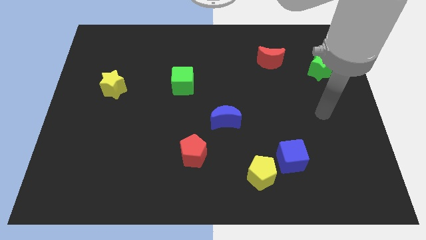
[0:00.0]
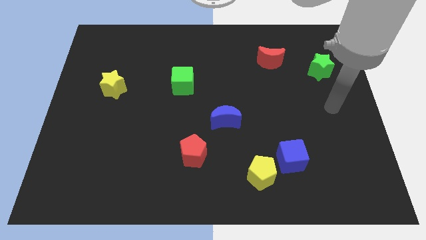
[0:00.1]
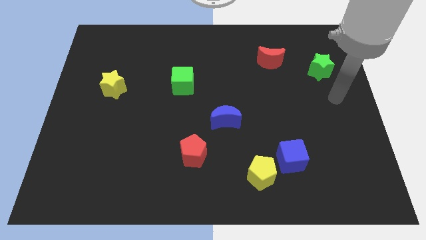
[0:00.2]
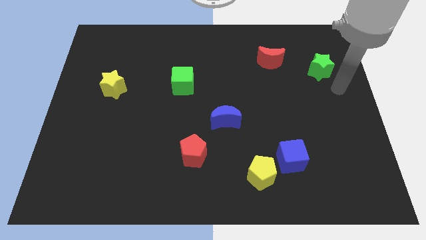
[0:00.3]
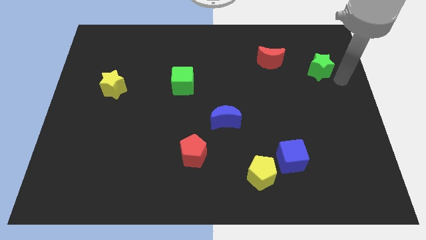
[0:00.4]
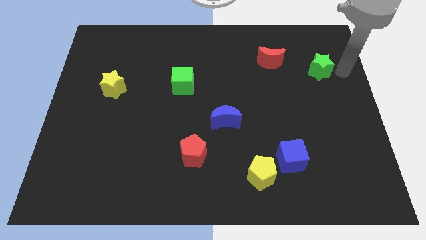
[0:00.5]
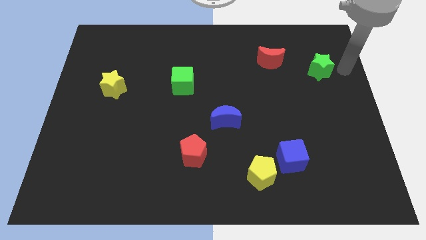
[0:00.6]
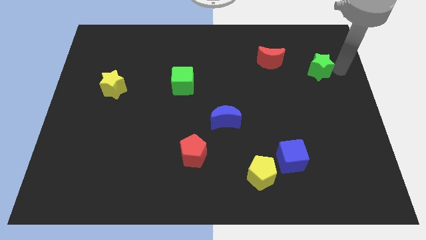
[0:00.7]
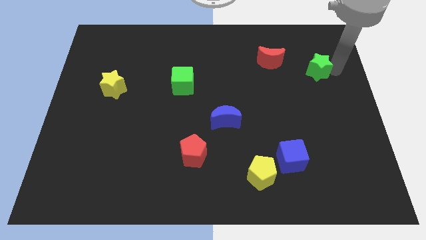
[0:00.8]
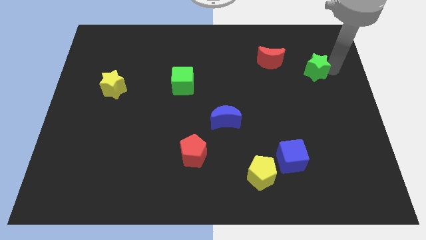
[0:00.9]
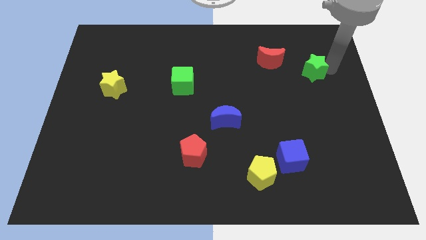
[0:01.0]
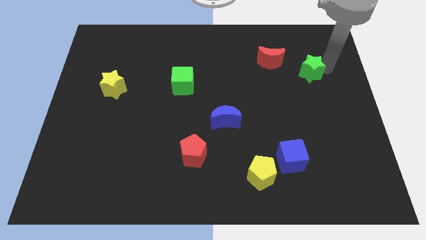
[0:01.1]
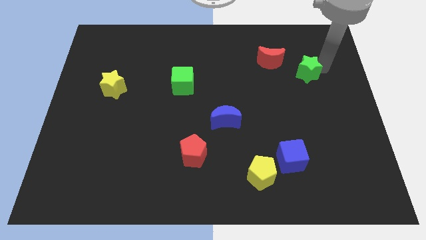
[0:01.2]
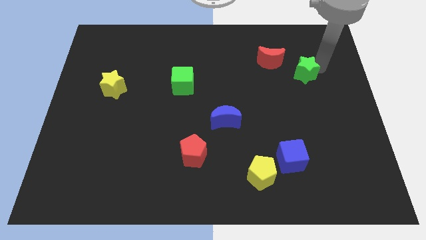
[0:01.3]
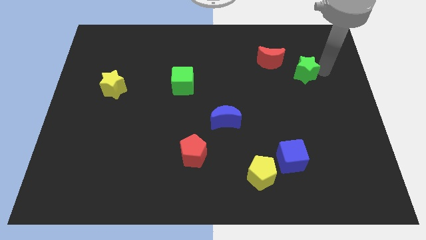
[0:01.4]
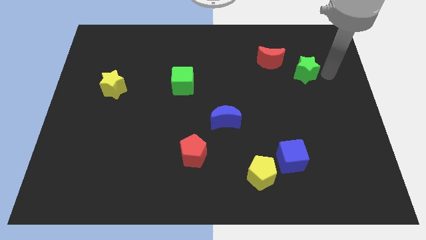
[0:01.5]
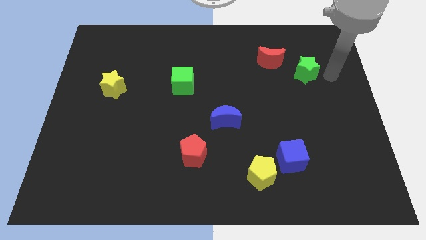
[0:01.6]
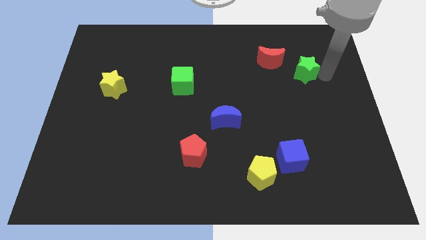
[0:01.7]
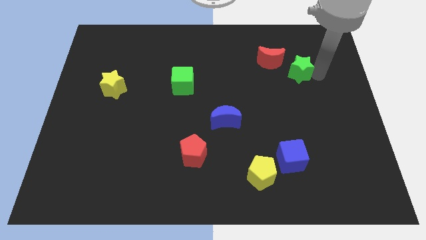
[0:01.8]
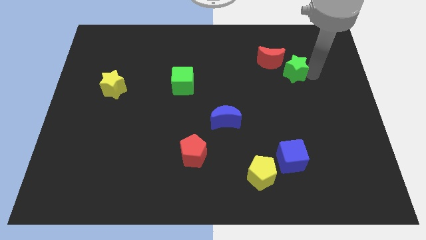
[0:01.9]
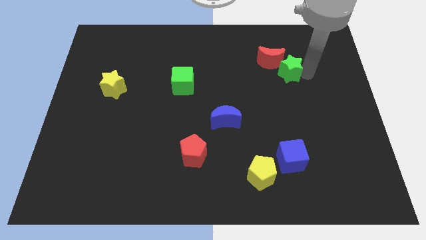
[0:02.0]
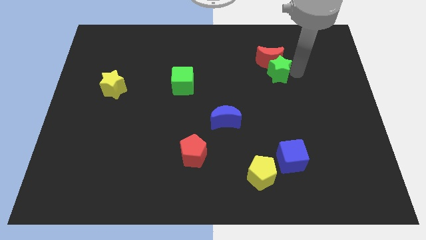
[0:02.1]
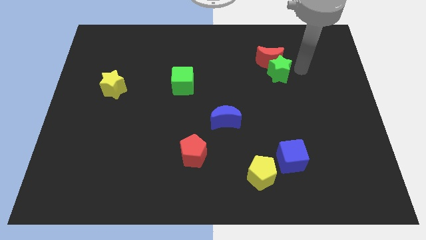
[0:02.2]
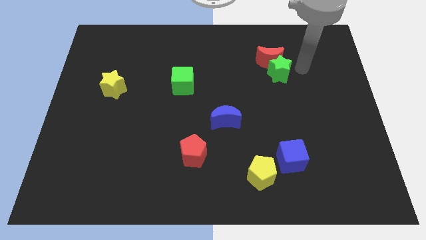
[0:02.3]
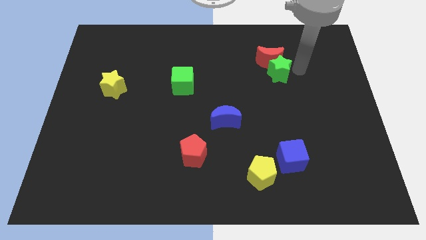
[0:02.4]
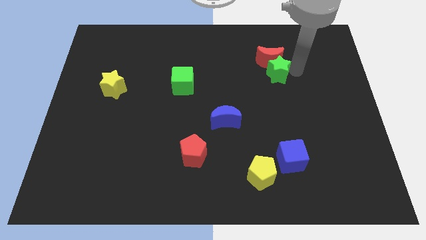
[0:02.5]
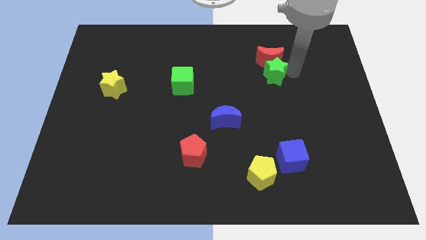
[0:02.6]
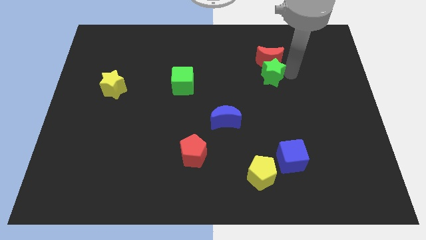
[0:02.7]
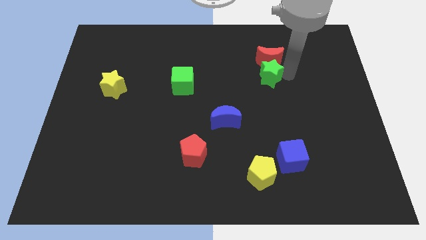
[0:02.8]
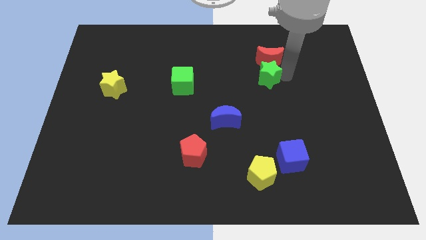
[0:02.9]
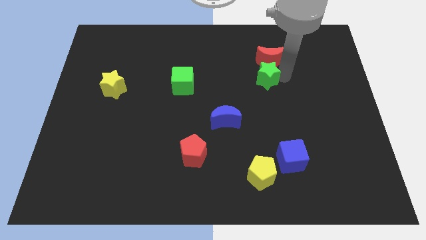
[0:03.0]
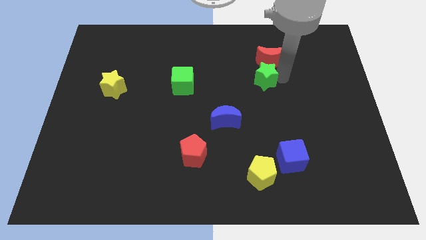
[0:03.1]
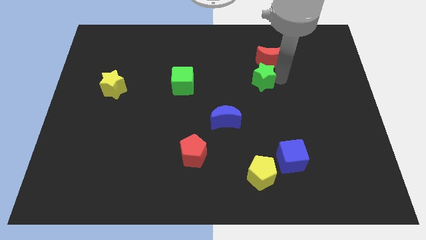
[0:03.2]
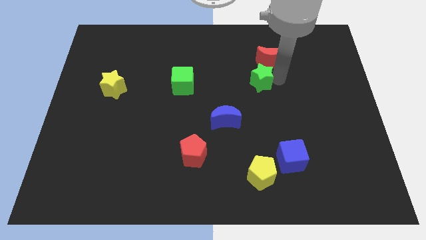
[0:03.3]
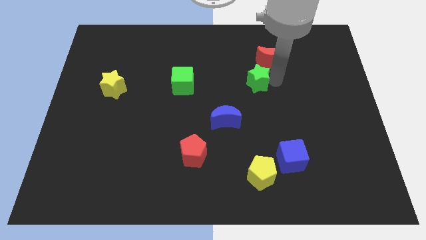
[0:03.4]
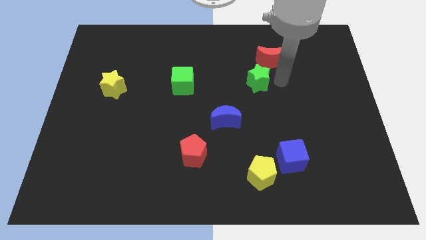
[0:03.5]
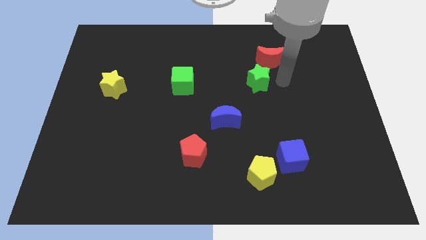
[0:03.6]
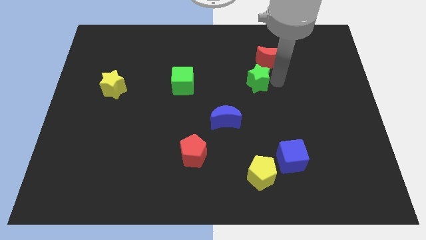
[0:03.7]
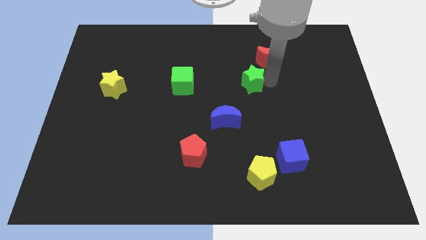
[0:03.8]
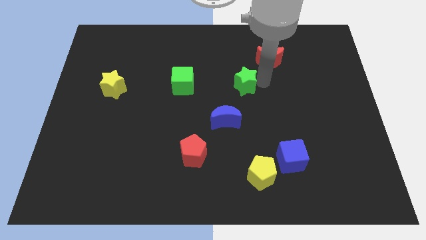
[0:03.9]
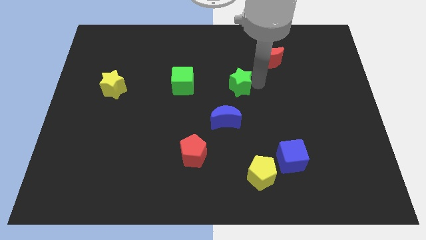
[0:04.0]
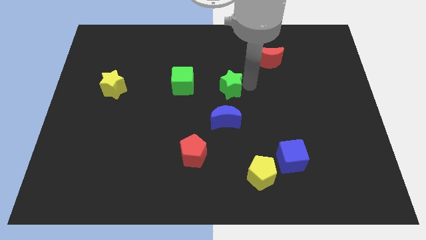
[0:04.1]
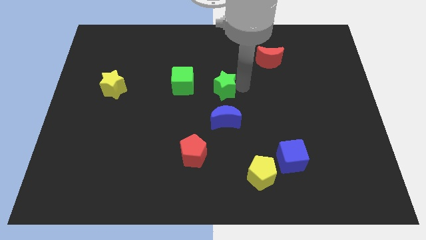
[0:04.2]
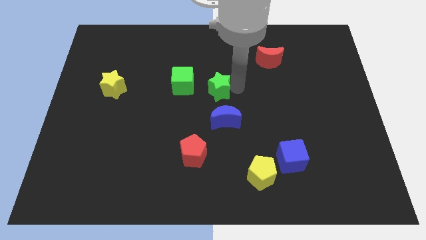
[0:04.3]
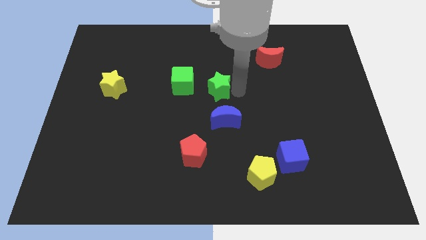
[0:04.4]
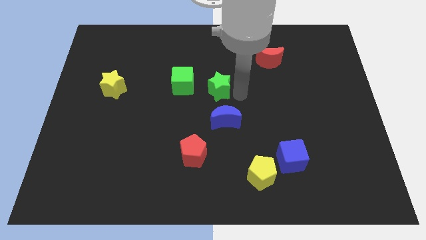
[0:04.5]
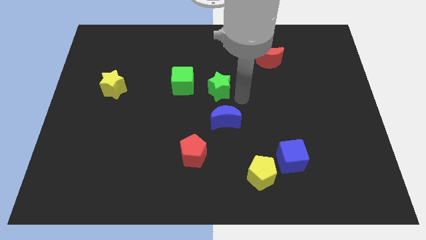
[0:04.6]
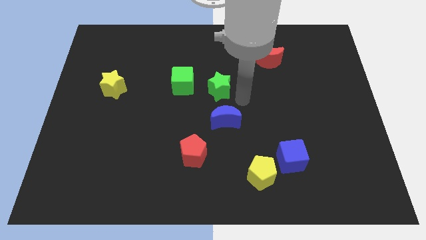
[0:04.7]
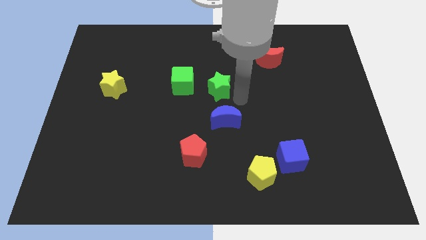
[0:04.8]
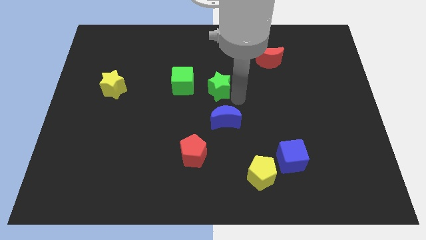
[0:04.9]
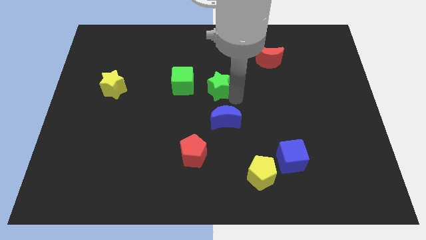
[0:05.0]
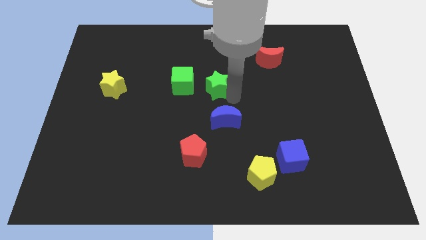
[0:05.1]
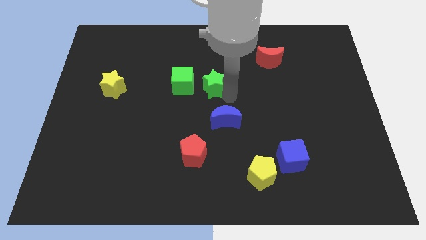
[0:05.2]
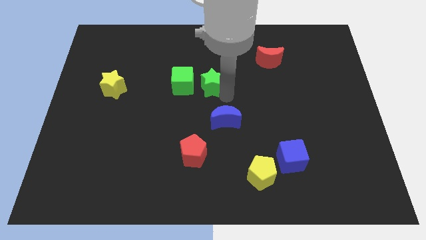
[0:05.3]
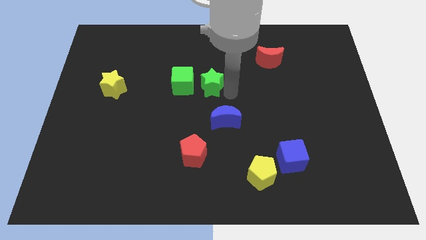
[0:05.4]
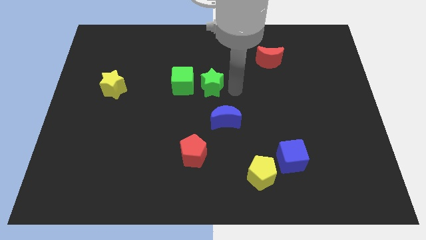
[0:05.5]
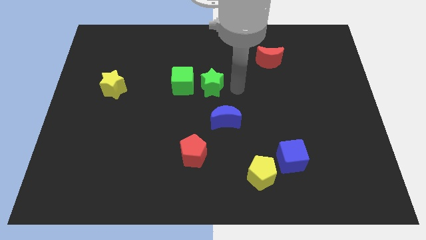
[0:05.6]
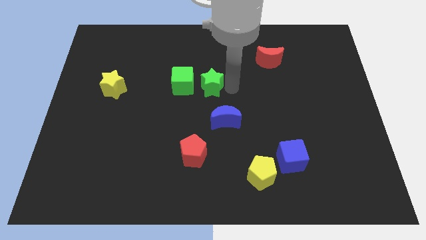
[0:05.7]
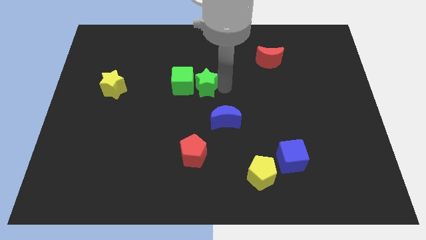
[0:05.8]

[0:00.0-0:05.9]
put the green star towards the green cube

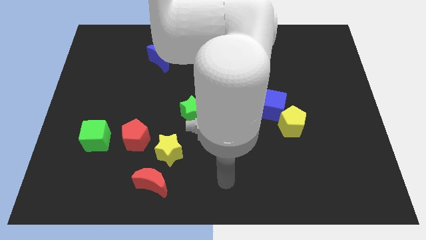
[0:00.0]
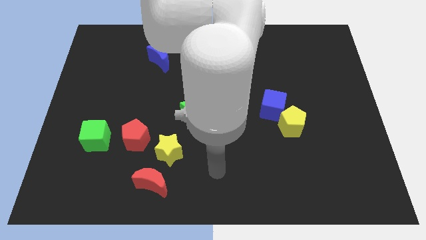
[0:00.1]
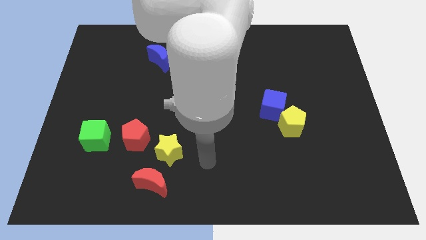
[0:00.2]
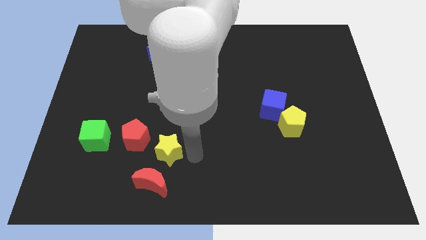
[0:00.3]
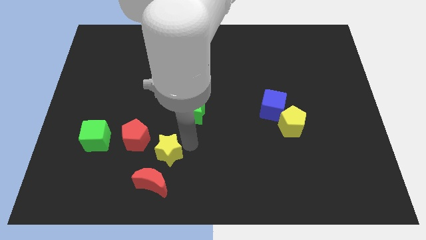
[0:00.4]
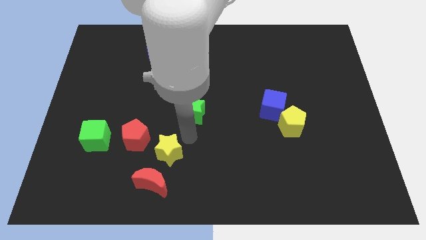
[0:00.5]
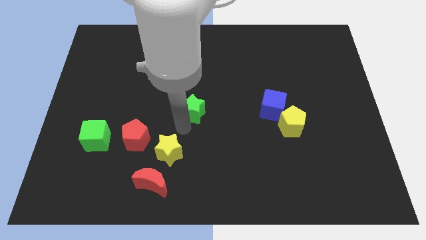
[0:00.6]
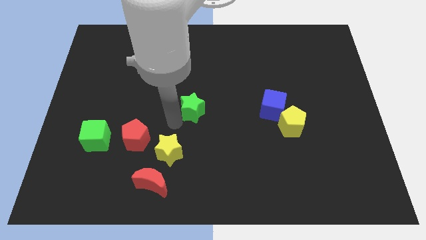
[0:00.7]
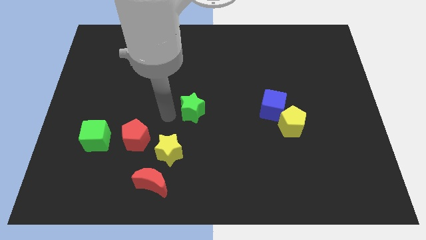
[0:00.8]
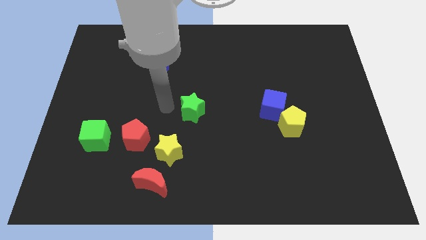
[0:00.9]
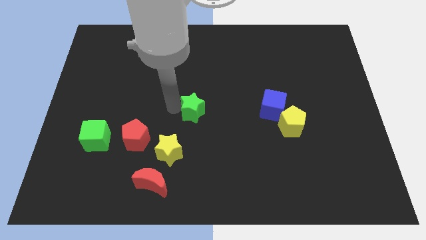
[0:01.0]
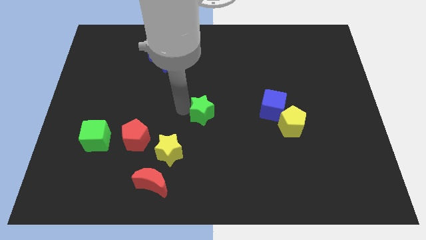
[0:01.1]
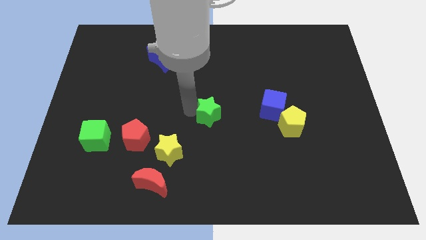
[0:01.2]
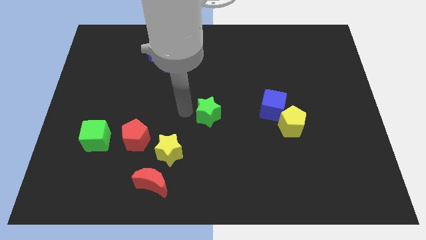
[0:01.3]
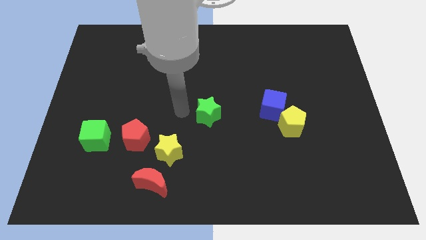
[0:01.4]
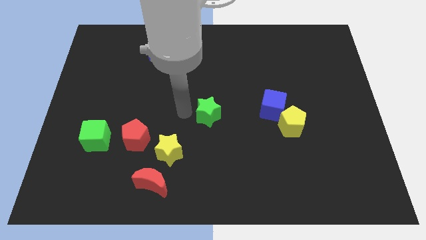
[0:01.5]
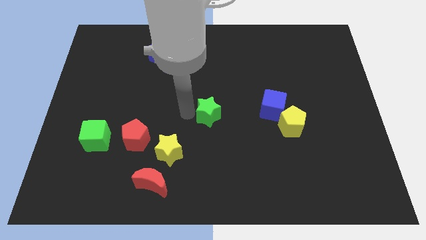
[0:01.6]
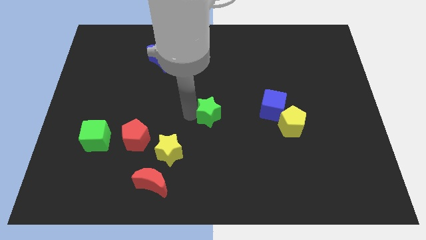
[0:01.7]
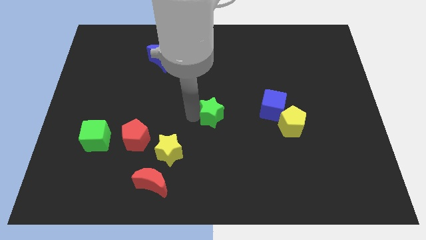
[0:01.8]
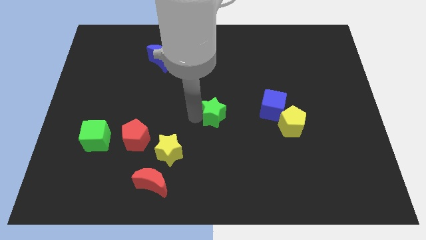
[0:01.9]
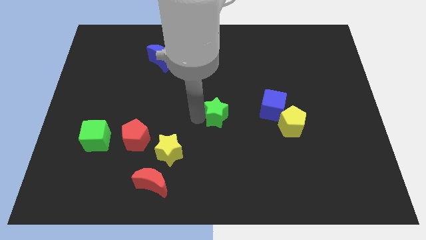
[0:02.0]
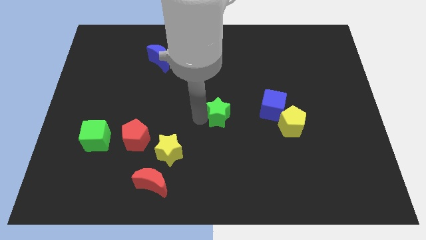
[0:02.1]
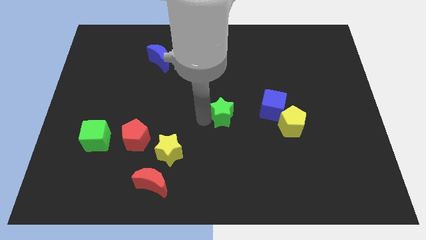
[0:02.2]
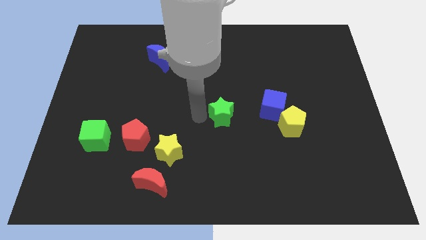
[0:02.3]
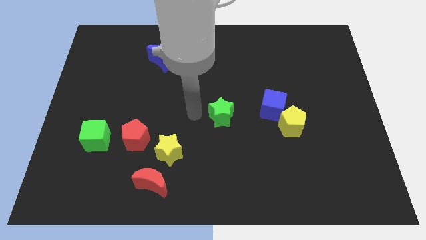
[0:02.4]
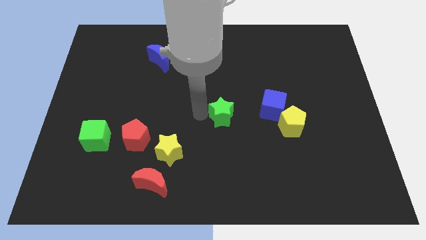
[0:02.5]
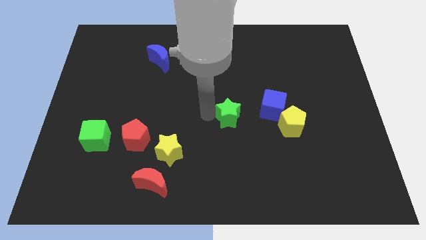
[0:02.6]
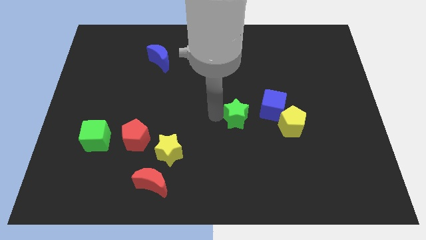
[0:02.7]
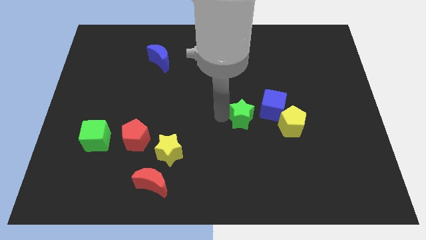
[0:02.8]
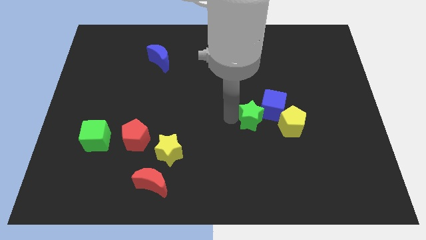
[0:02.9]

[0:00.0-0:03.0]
push the green star close to the blue cube
